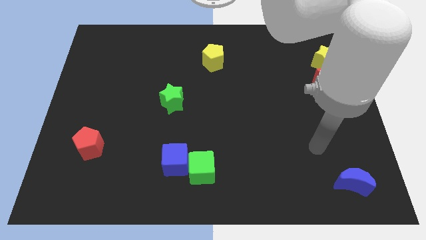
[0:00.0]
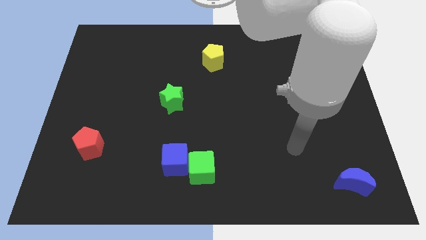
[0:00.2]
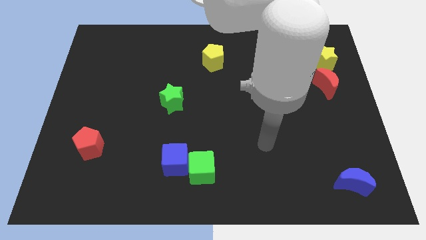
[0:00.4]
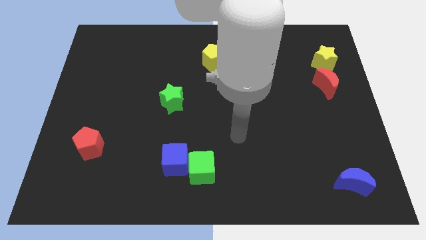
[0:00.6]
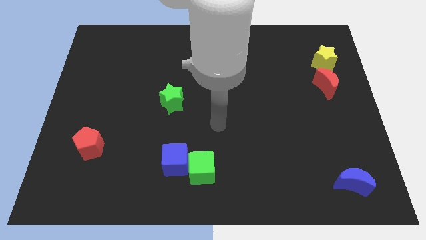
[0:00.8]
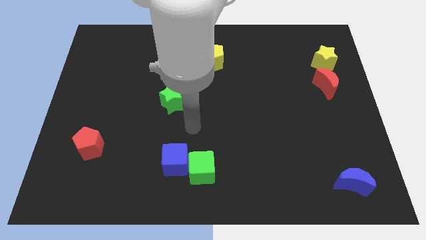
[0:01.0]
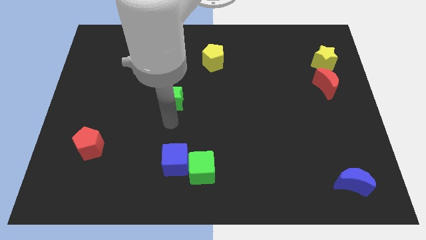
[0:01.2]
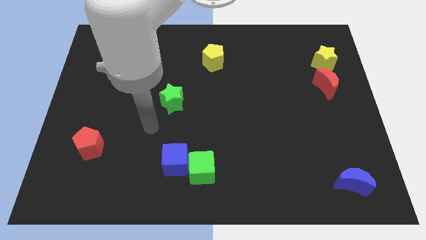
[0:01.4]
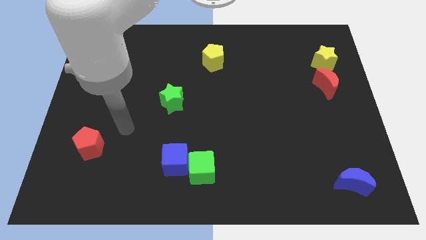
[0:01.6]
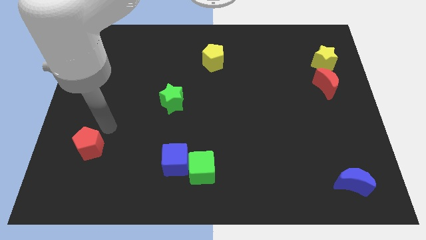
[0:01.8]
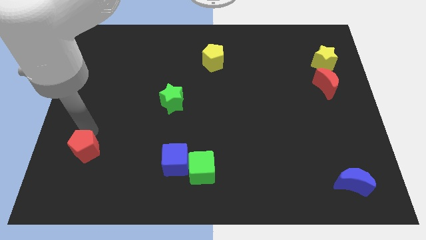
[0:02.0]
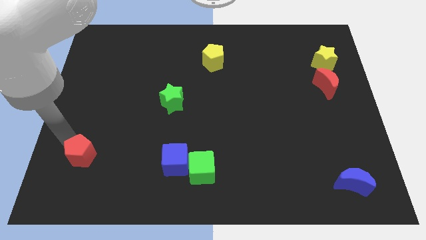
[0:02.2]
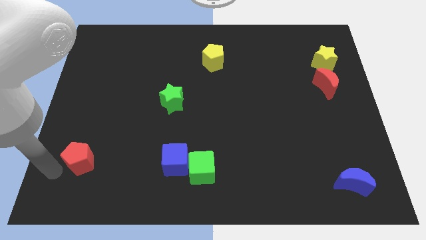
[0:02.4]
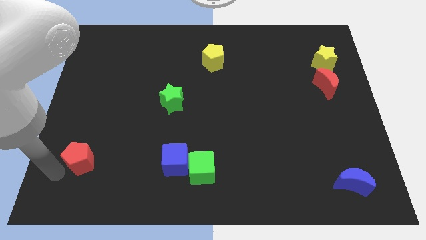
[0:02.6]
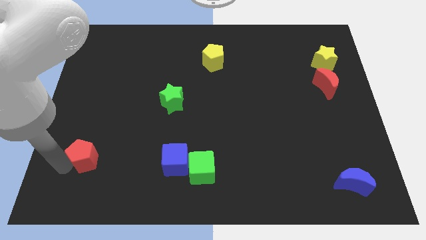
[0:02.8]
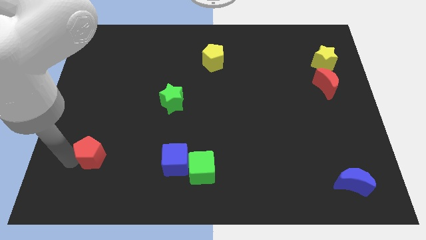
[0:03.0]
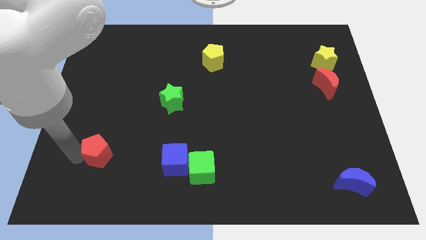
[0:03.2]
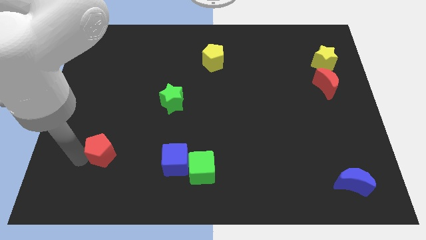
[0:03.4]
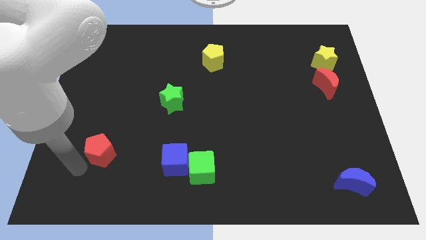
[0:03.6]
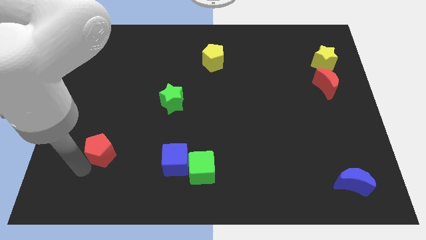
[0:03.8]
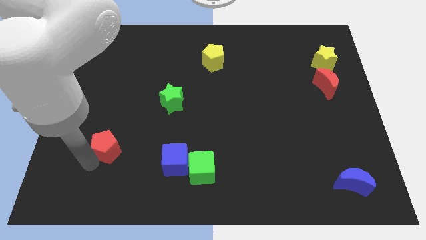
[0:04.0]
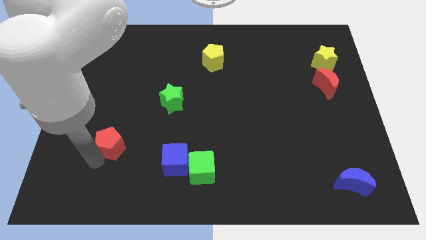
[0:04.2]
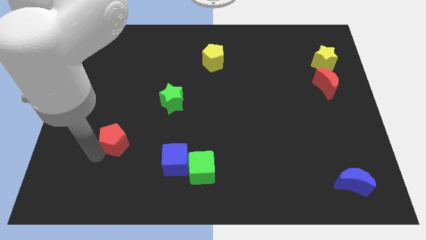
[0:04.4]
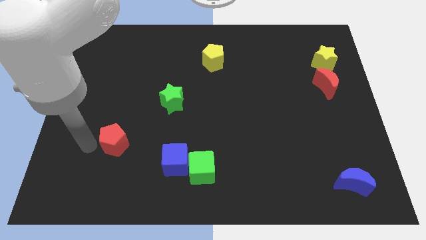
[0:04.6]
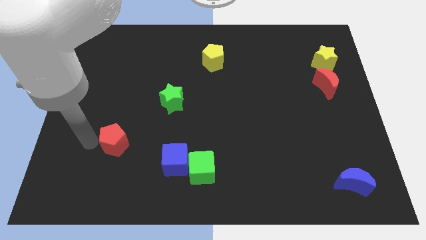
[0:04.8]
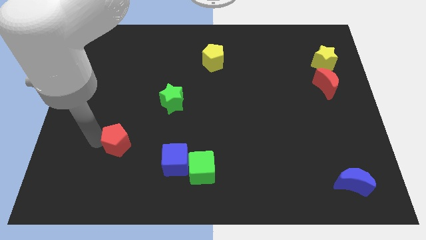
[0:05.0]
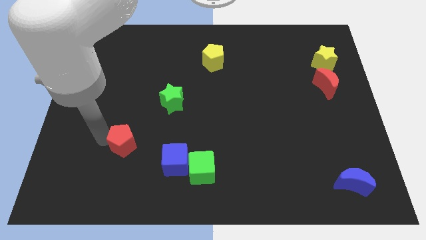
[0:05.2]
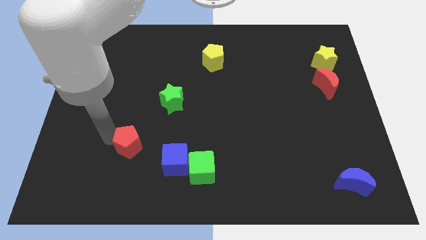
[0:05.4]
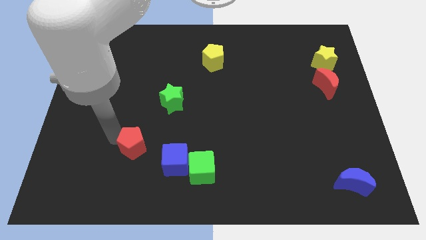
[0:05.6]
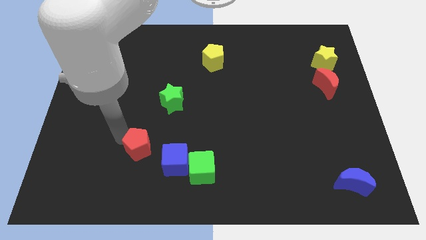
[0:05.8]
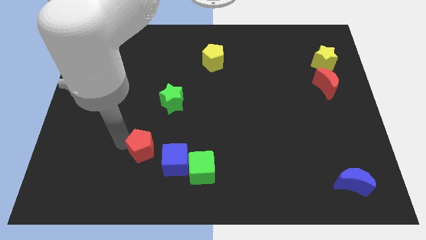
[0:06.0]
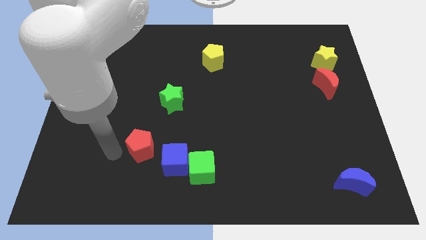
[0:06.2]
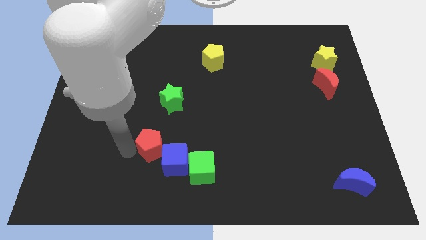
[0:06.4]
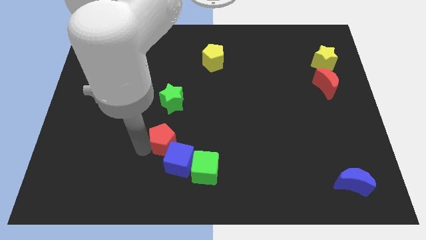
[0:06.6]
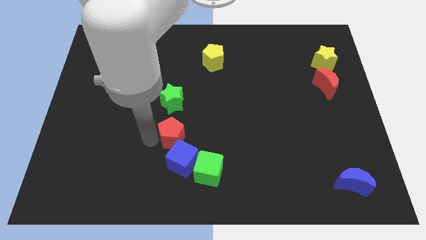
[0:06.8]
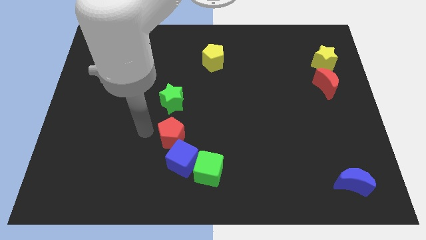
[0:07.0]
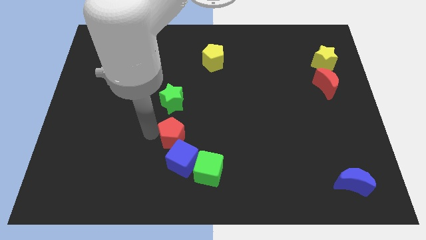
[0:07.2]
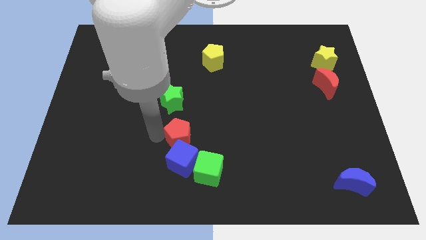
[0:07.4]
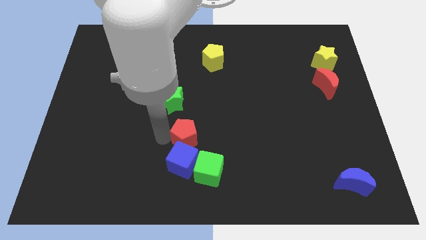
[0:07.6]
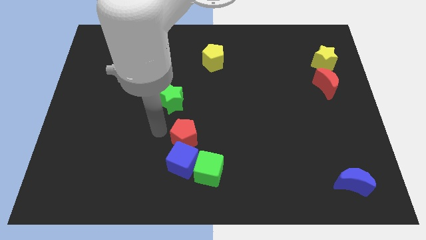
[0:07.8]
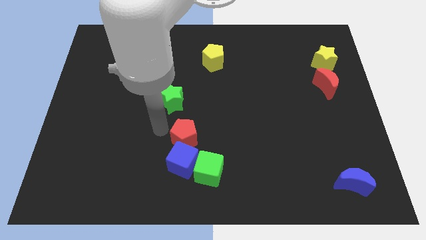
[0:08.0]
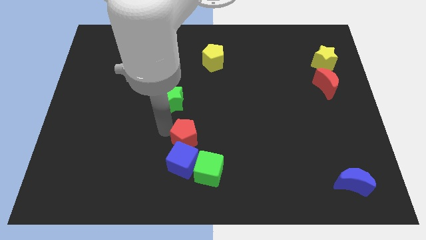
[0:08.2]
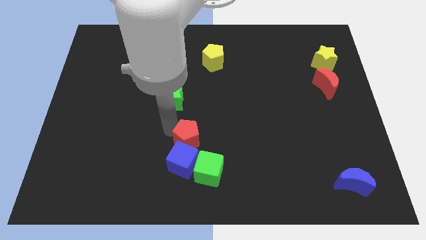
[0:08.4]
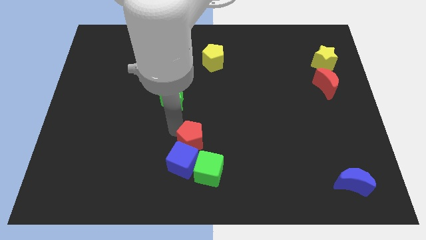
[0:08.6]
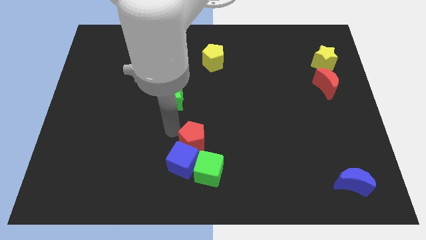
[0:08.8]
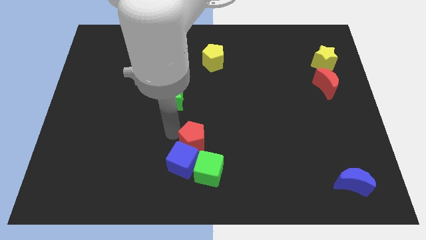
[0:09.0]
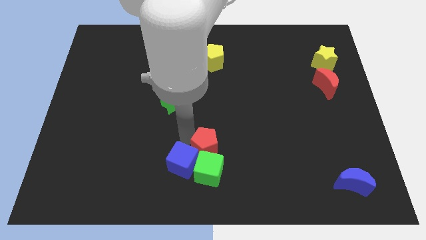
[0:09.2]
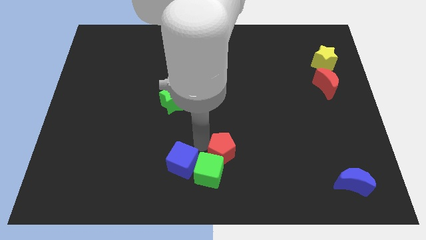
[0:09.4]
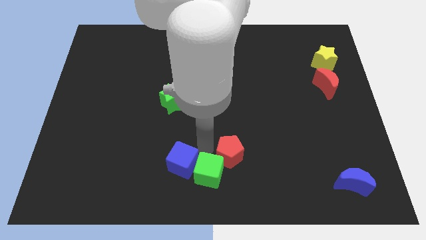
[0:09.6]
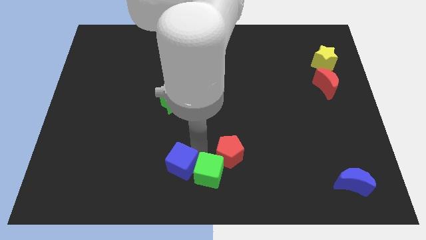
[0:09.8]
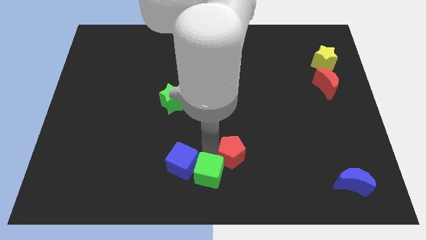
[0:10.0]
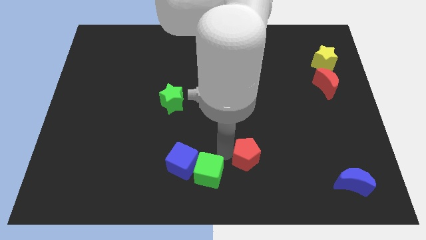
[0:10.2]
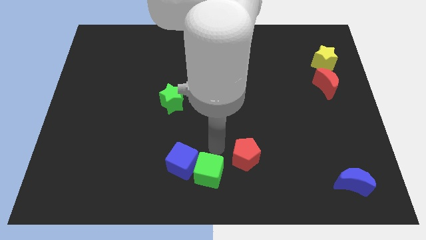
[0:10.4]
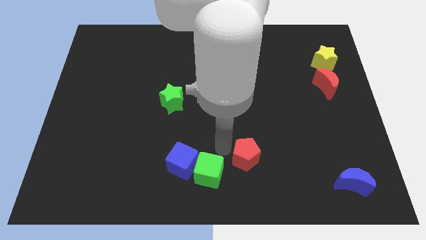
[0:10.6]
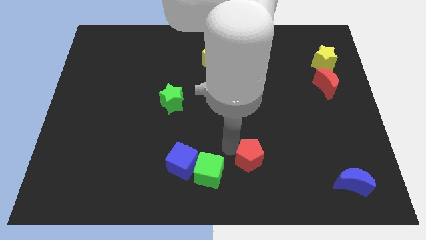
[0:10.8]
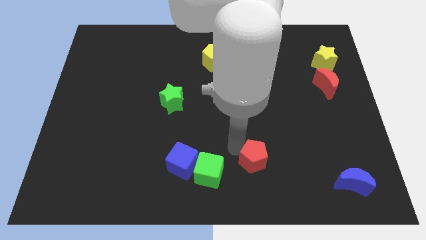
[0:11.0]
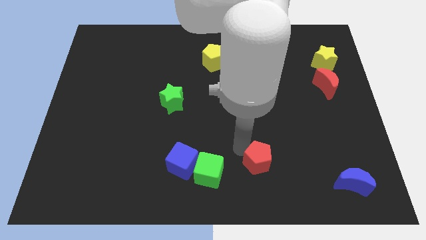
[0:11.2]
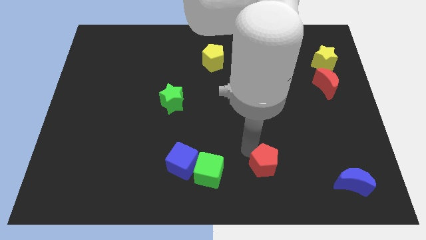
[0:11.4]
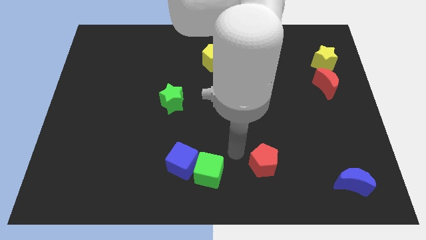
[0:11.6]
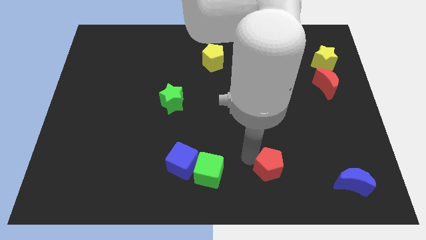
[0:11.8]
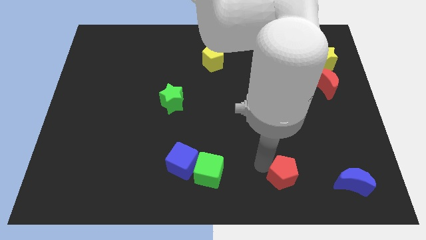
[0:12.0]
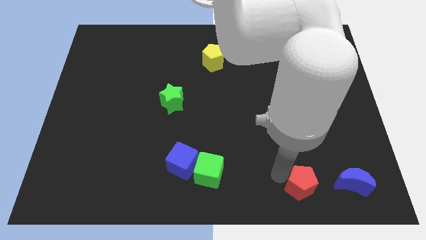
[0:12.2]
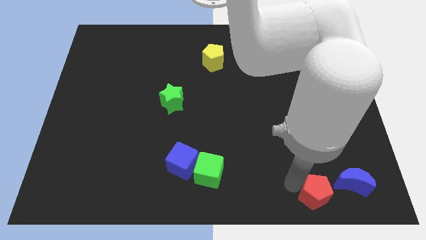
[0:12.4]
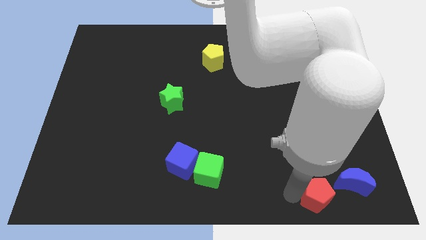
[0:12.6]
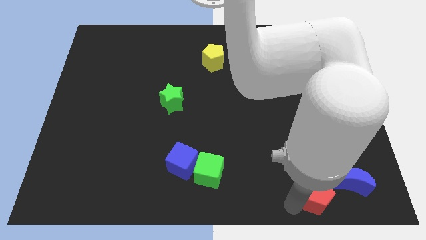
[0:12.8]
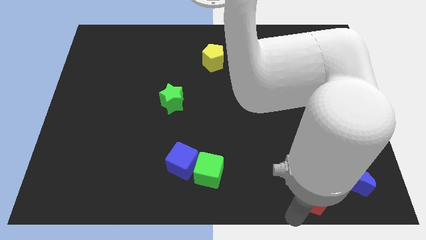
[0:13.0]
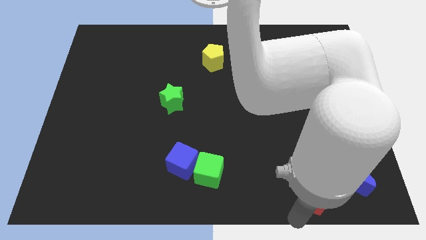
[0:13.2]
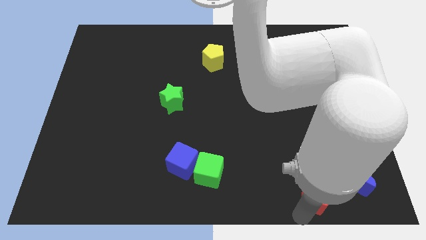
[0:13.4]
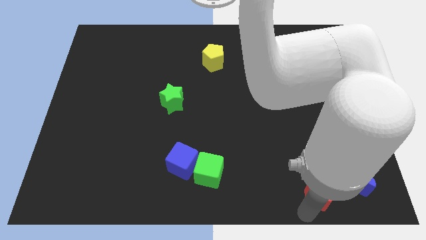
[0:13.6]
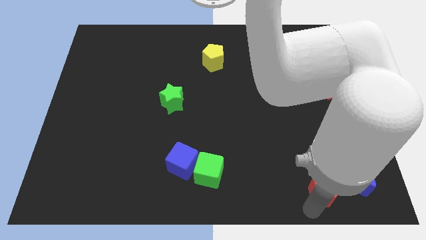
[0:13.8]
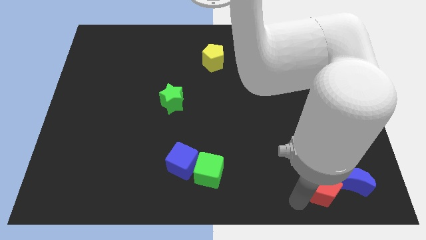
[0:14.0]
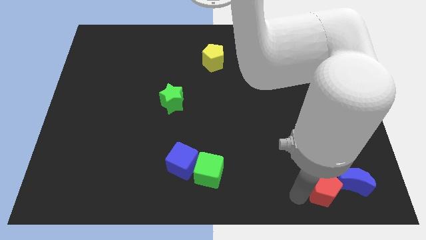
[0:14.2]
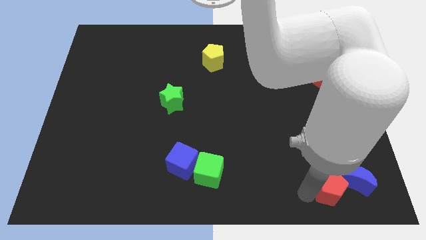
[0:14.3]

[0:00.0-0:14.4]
slide the red pentagon towards the blue moon
